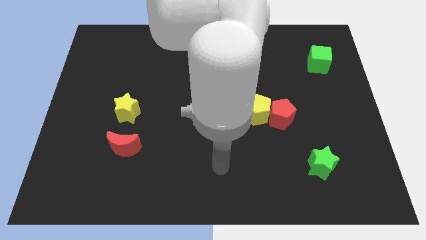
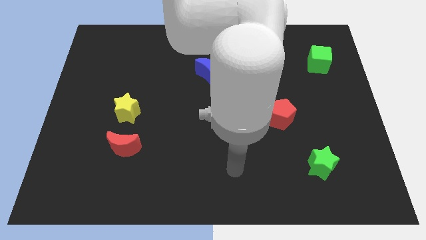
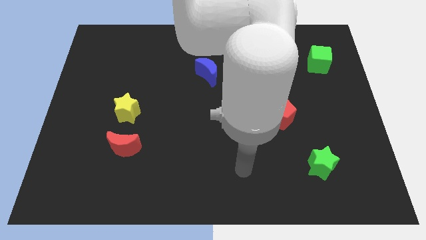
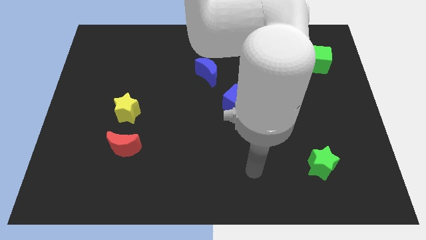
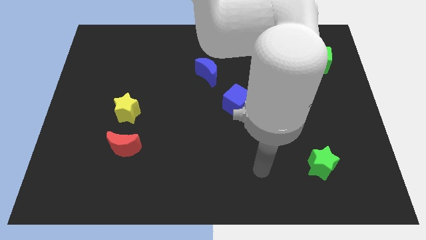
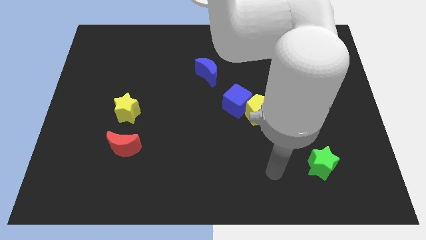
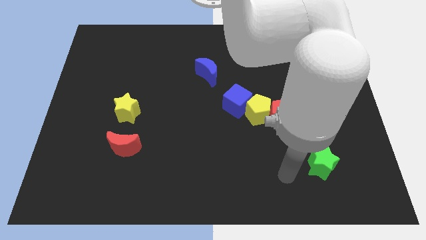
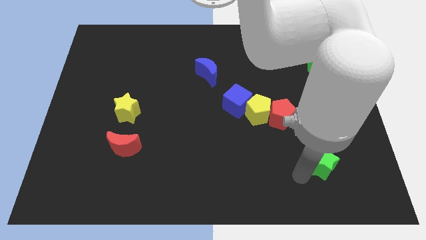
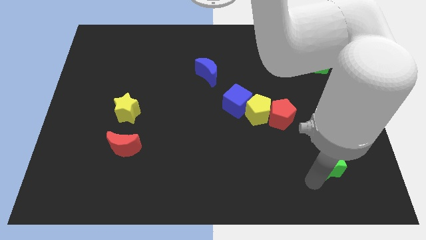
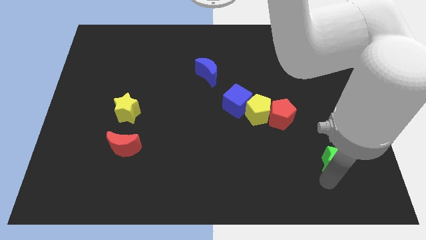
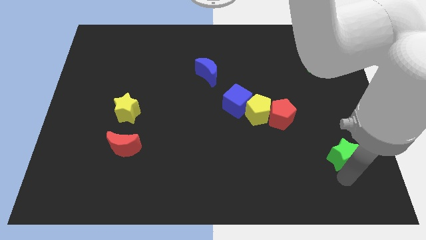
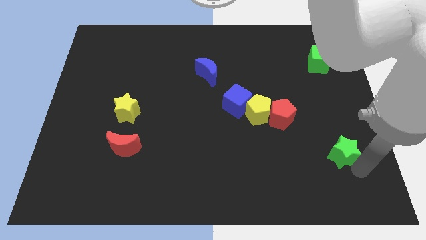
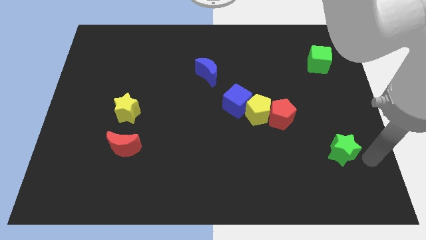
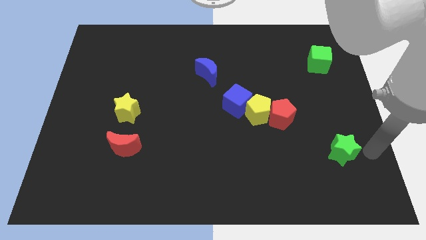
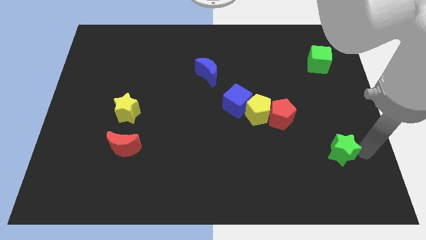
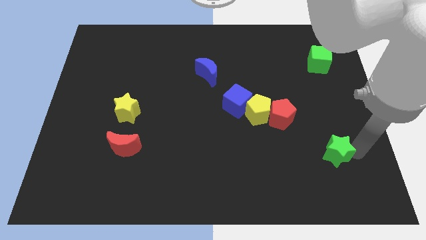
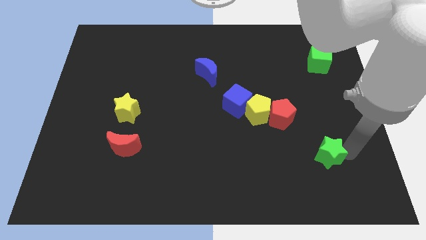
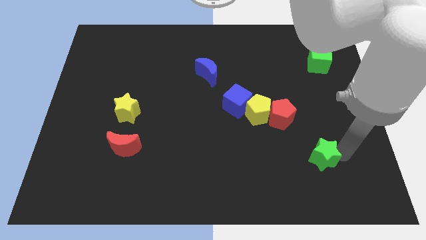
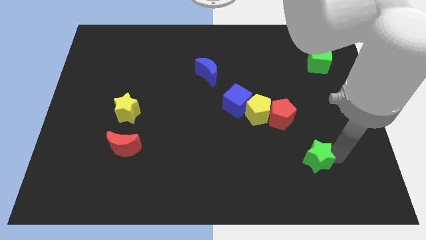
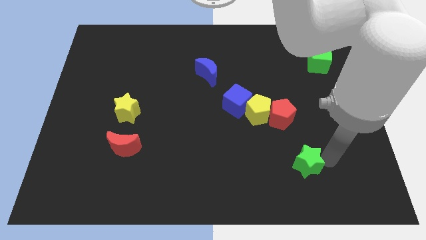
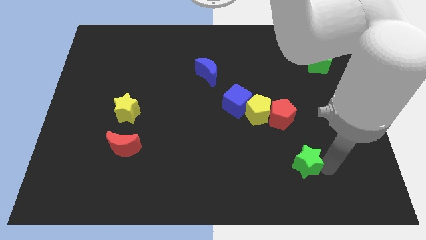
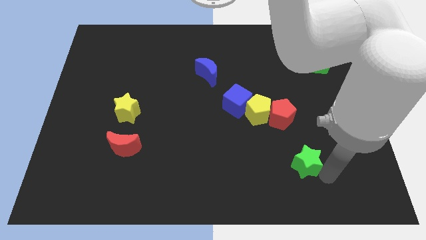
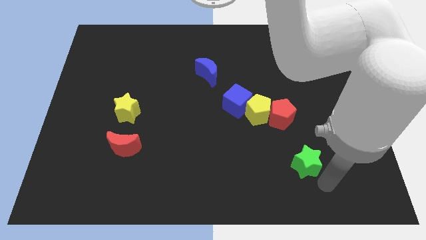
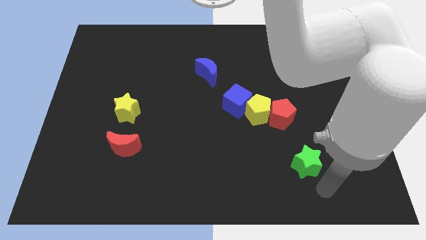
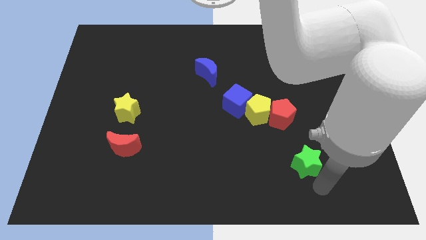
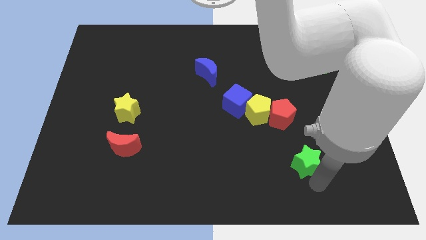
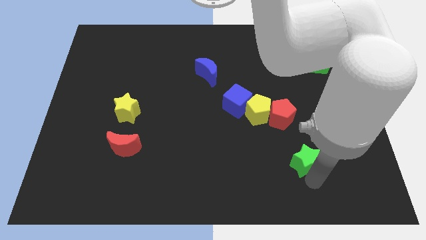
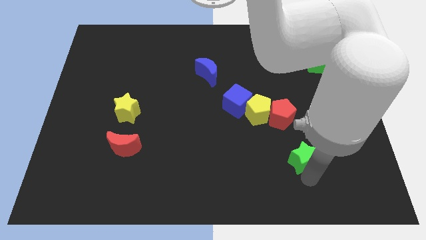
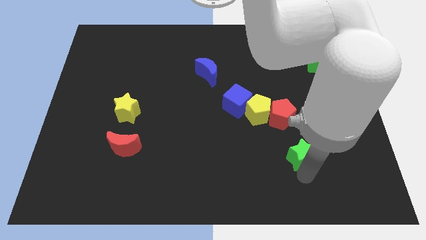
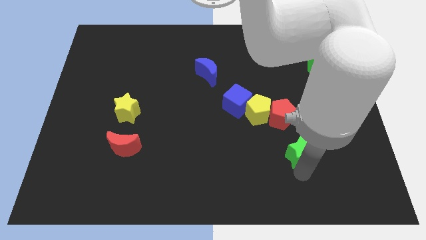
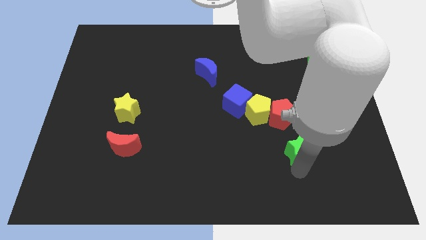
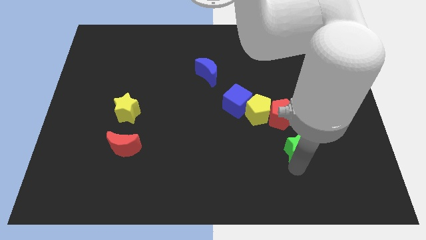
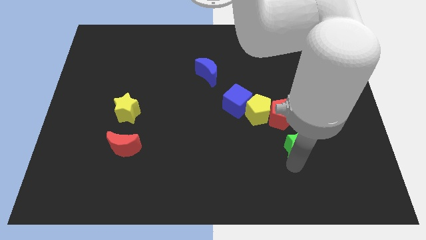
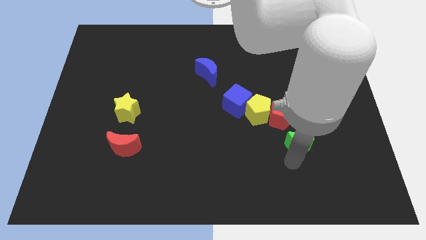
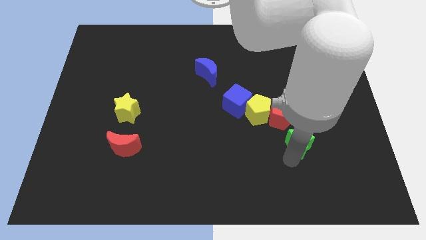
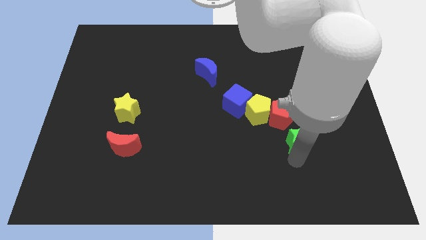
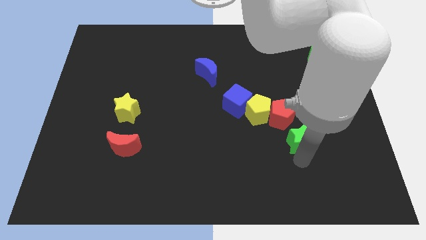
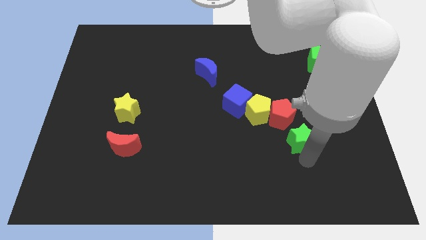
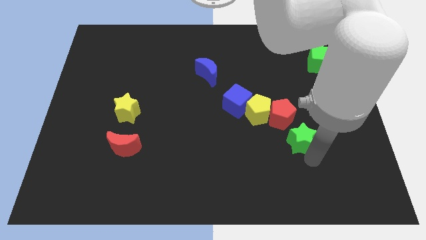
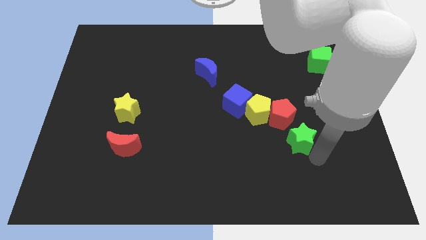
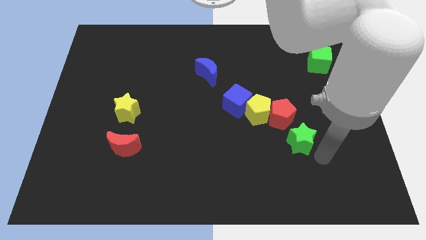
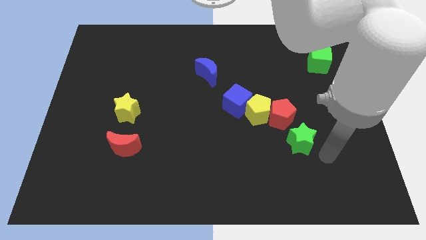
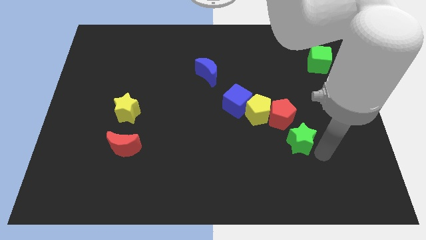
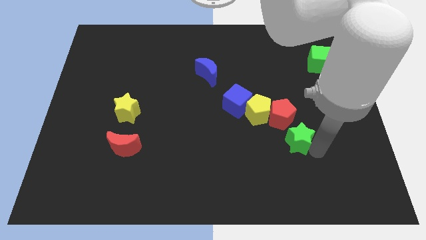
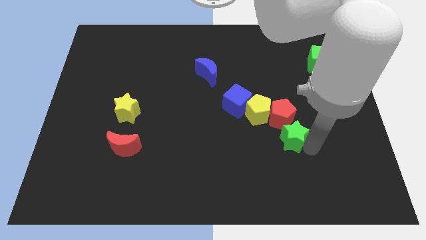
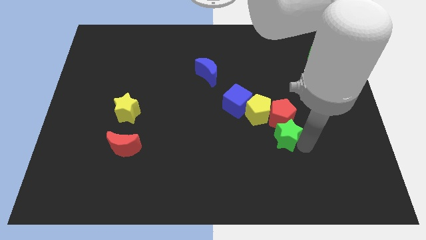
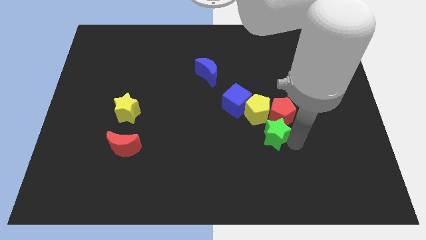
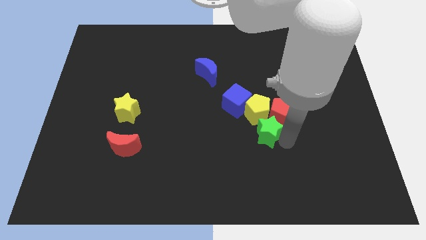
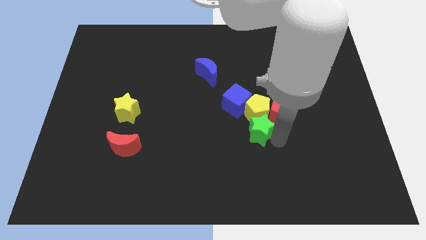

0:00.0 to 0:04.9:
put the green star towards the yellow pentagon

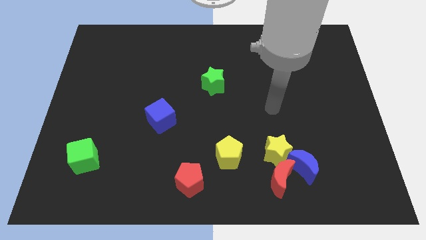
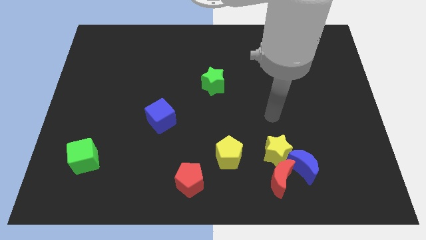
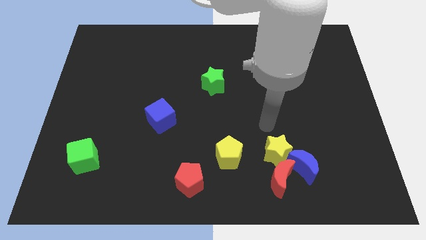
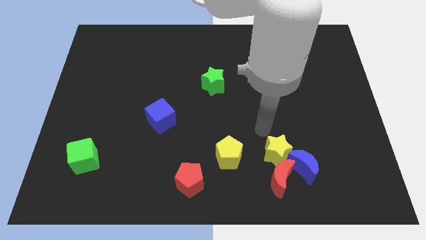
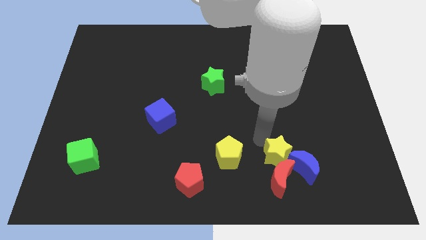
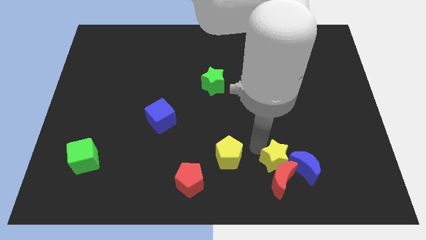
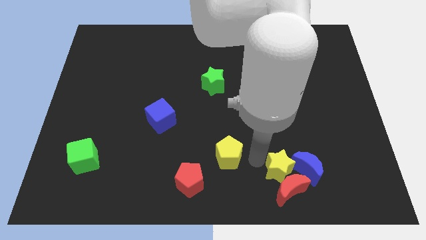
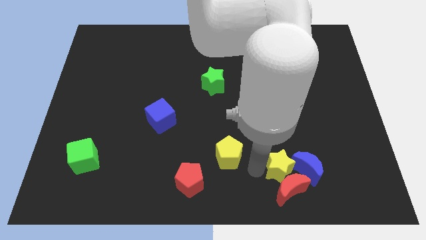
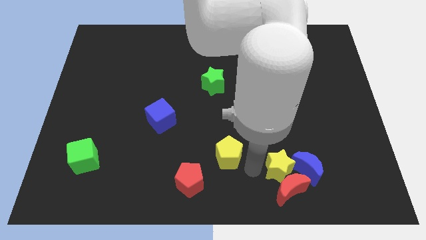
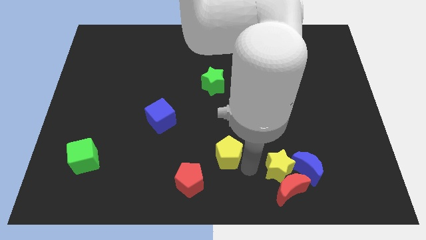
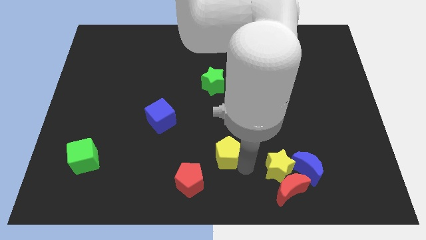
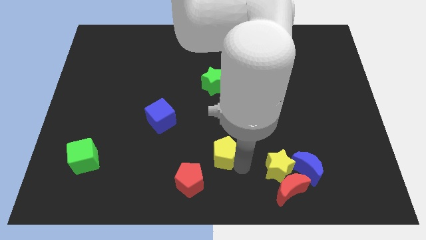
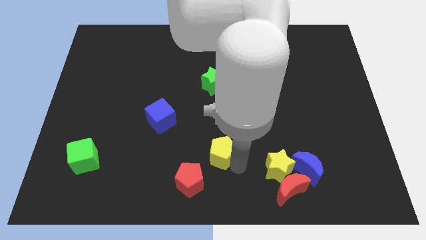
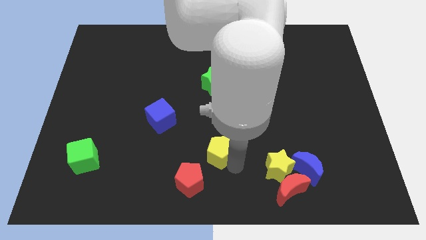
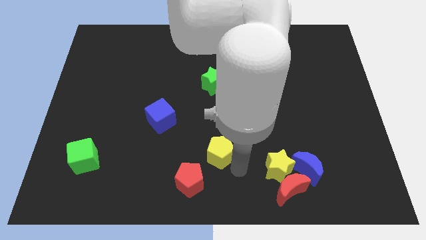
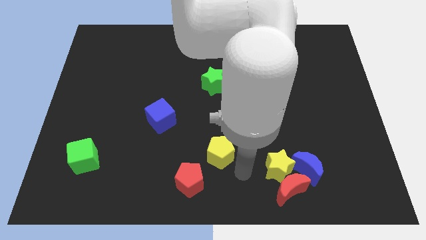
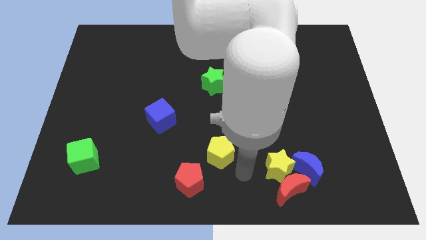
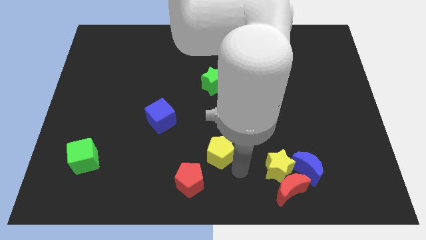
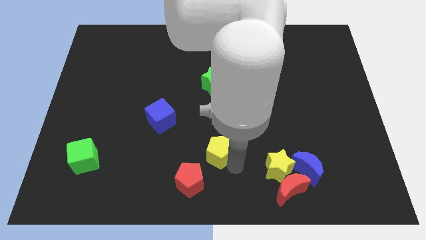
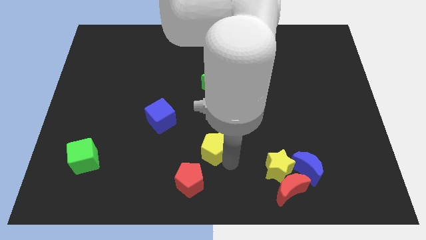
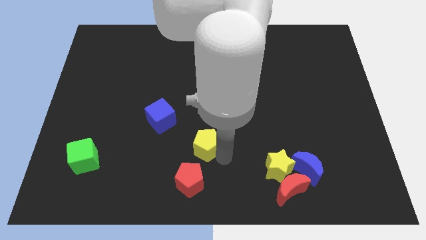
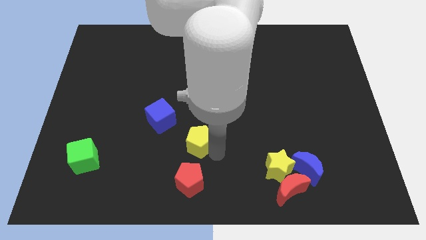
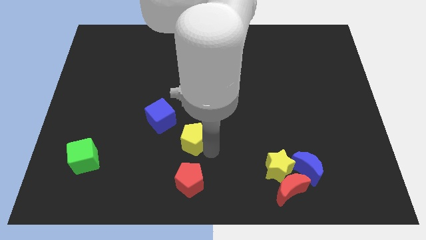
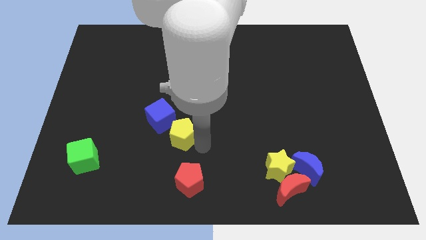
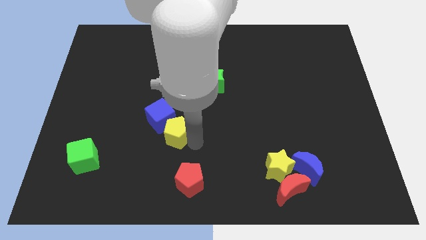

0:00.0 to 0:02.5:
put the yellow pentagon close to the blue cube
